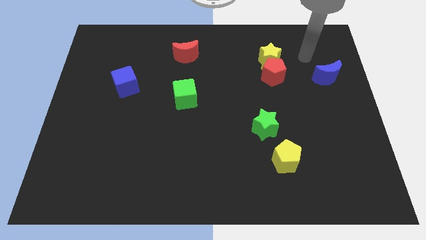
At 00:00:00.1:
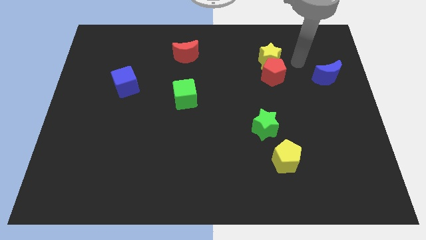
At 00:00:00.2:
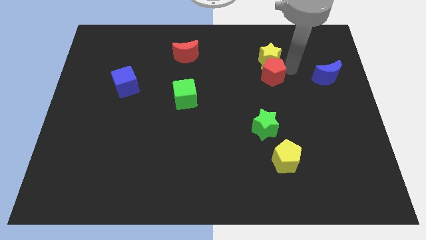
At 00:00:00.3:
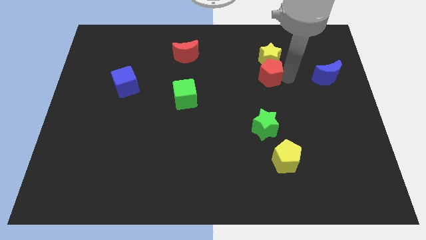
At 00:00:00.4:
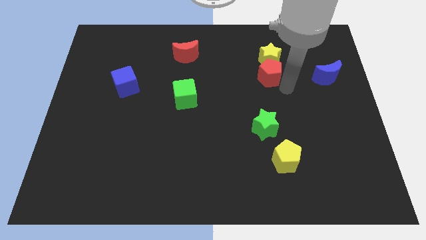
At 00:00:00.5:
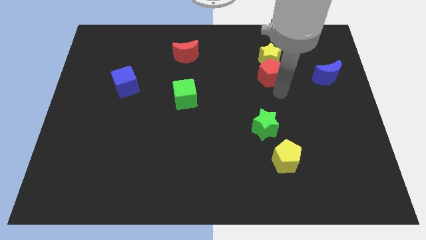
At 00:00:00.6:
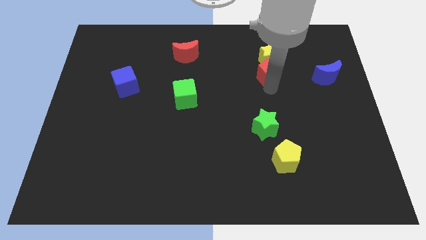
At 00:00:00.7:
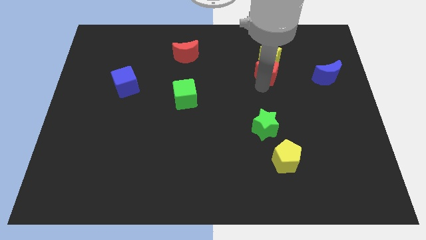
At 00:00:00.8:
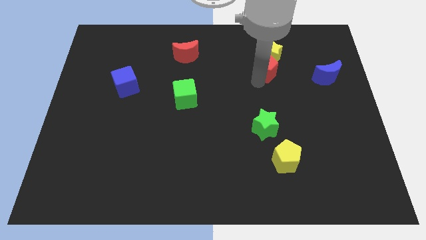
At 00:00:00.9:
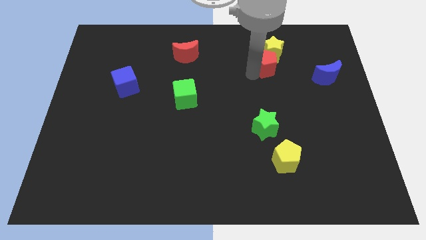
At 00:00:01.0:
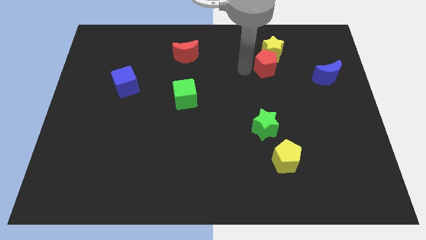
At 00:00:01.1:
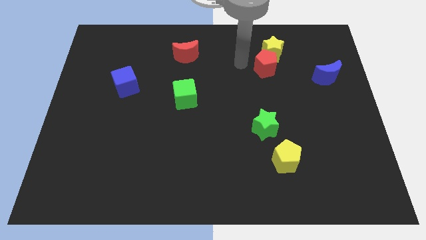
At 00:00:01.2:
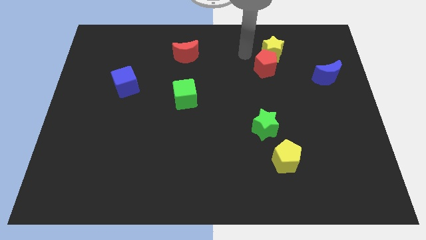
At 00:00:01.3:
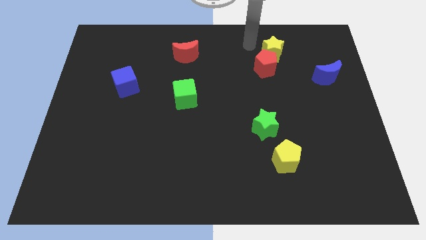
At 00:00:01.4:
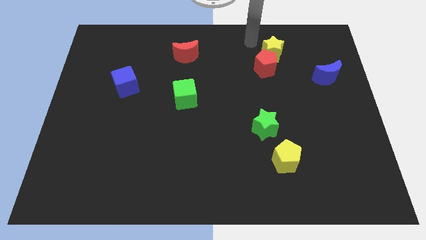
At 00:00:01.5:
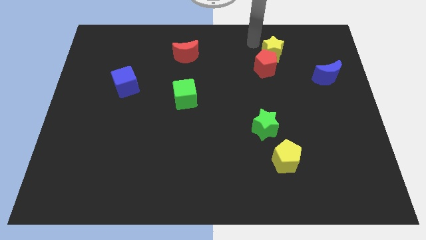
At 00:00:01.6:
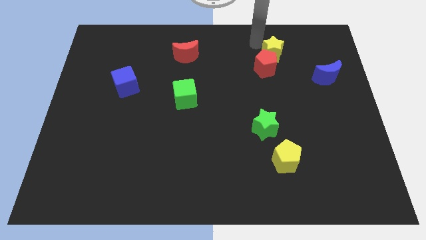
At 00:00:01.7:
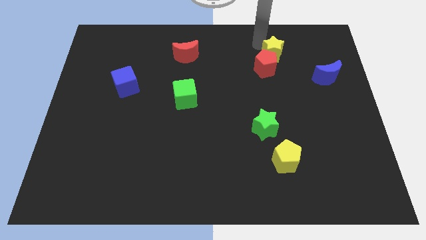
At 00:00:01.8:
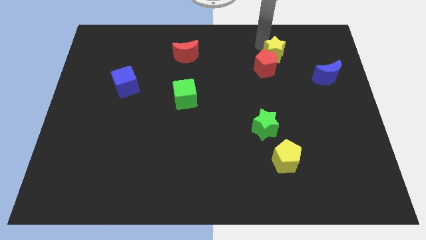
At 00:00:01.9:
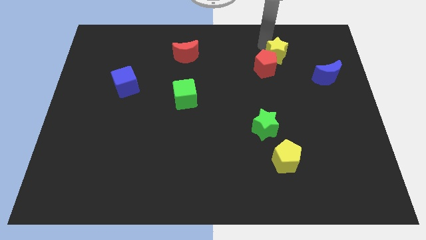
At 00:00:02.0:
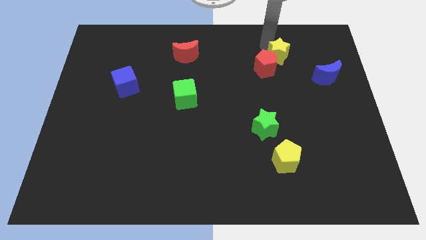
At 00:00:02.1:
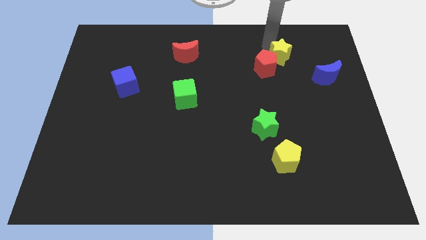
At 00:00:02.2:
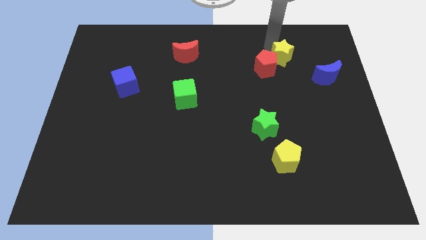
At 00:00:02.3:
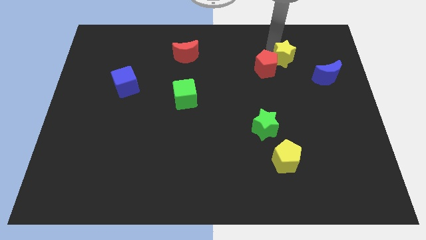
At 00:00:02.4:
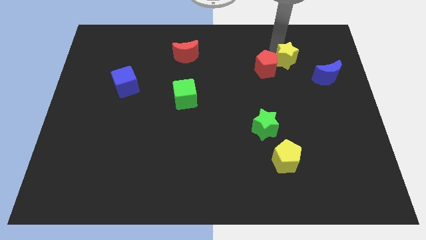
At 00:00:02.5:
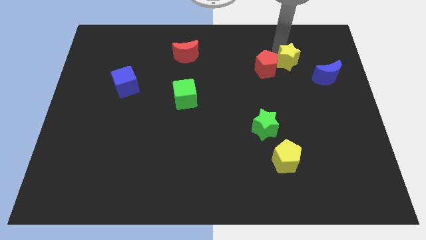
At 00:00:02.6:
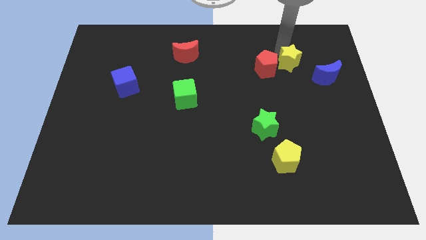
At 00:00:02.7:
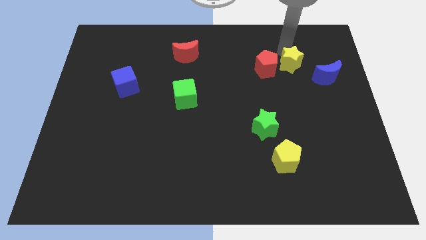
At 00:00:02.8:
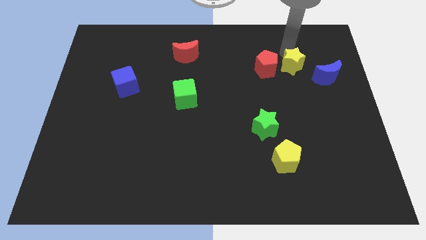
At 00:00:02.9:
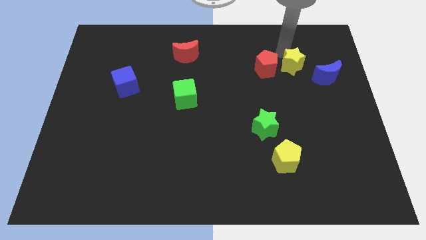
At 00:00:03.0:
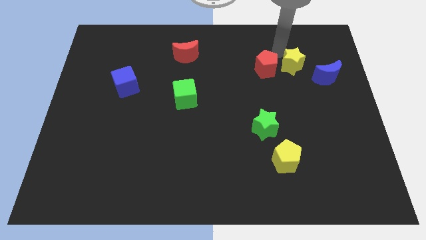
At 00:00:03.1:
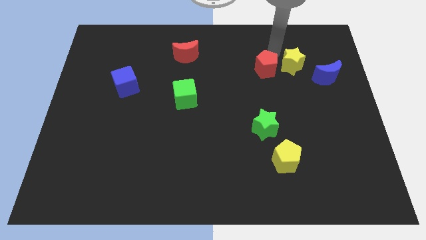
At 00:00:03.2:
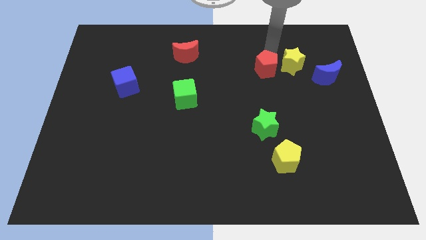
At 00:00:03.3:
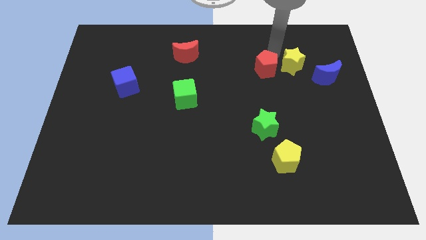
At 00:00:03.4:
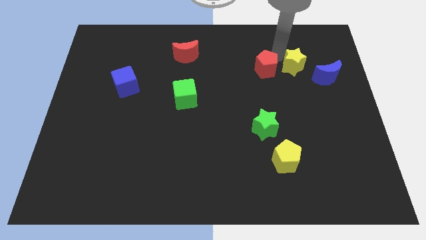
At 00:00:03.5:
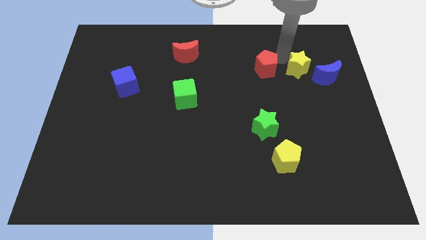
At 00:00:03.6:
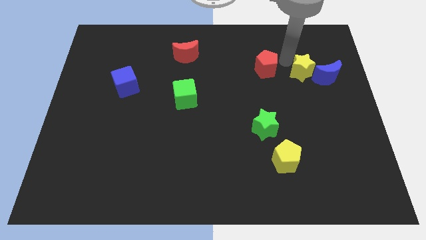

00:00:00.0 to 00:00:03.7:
slightly push the yellow star down and to the right diagonally

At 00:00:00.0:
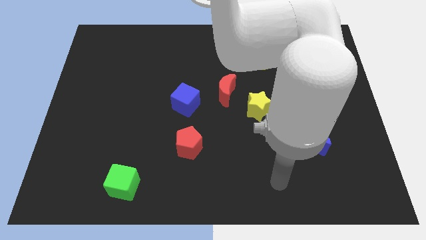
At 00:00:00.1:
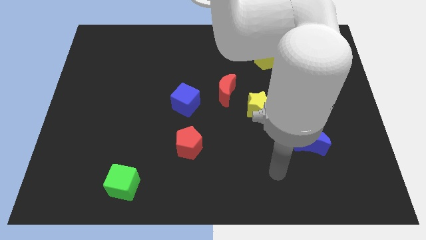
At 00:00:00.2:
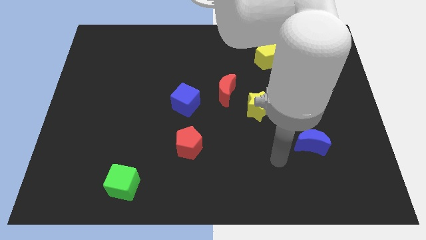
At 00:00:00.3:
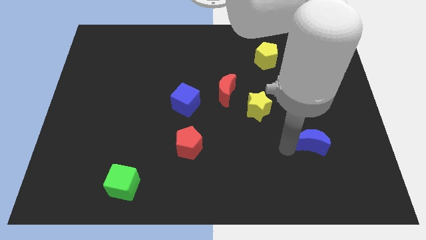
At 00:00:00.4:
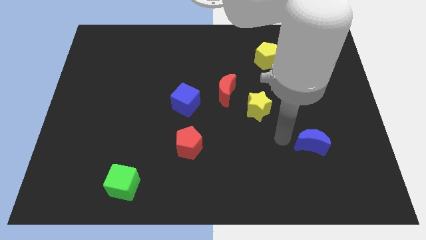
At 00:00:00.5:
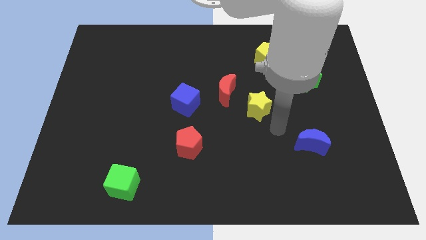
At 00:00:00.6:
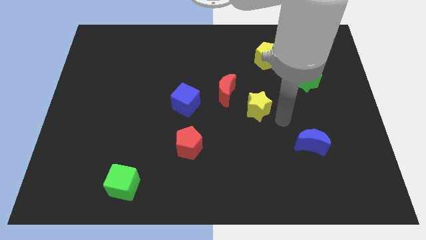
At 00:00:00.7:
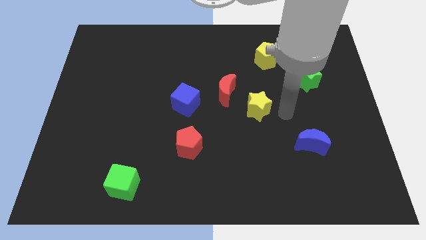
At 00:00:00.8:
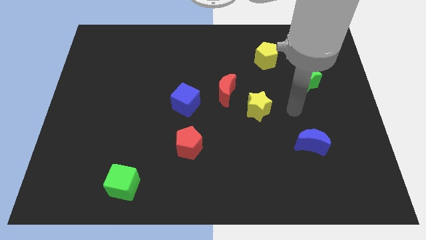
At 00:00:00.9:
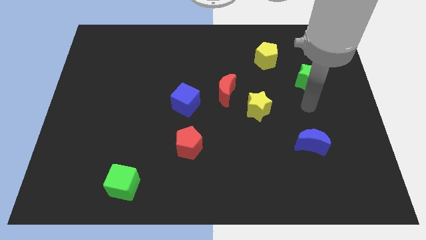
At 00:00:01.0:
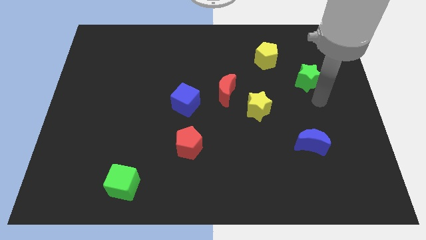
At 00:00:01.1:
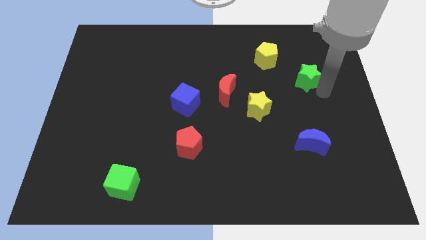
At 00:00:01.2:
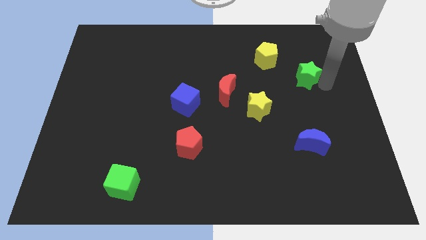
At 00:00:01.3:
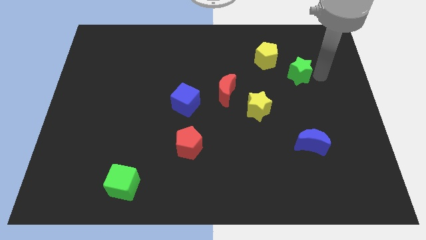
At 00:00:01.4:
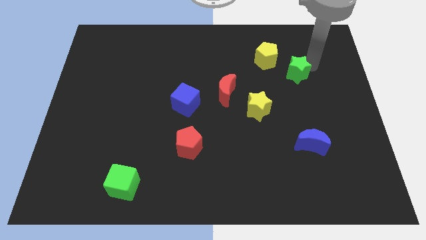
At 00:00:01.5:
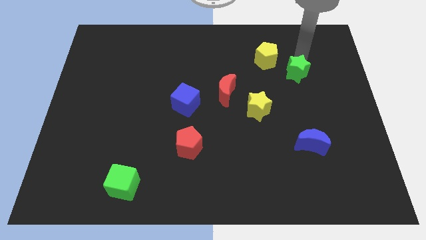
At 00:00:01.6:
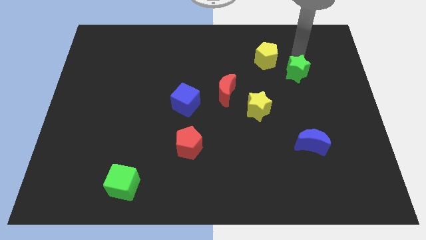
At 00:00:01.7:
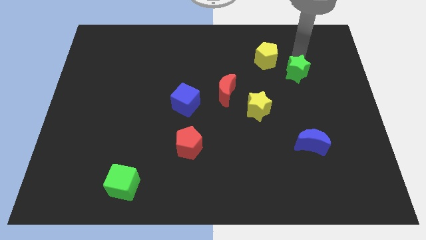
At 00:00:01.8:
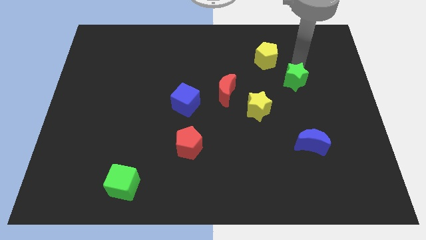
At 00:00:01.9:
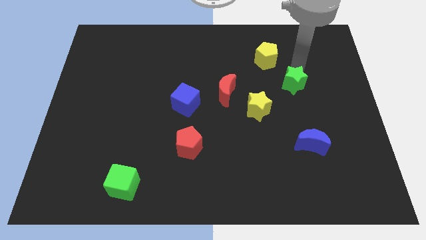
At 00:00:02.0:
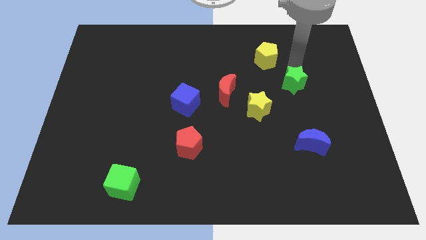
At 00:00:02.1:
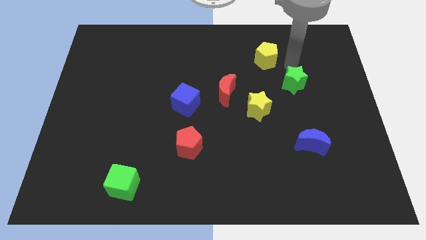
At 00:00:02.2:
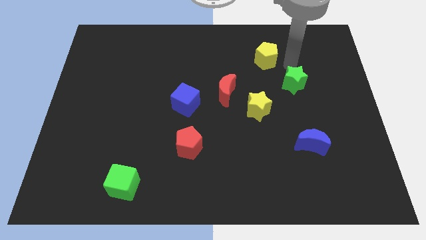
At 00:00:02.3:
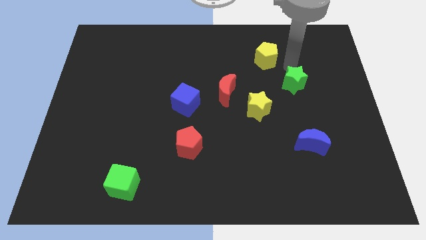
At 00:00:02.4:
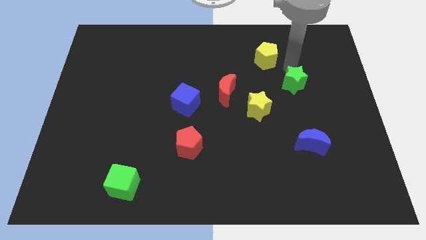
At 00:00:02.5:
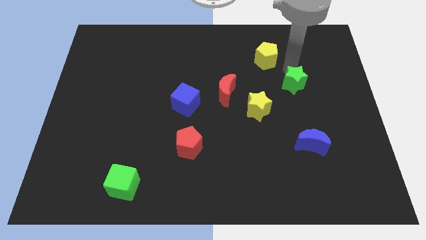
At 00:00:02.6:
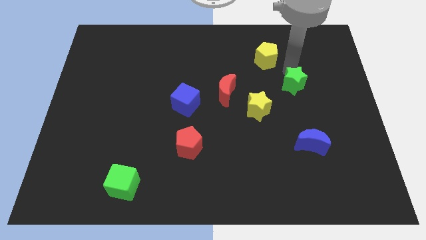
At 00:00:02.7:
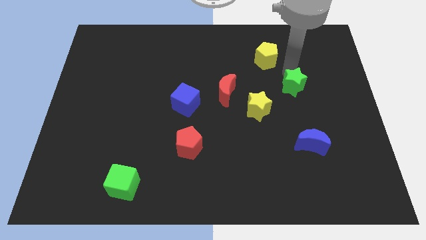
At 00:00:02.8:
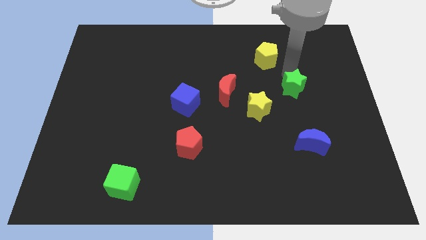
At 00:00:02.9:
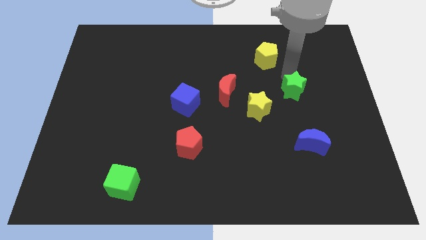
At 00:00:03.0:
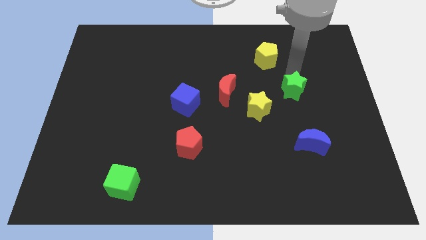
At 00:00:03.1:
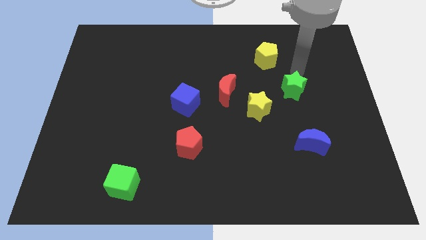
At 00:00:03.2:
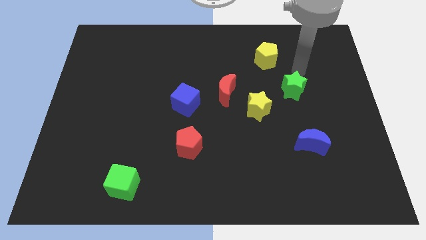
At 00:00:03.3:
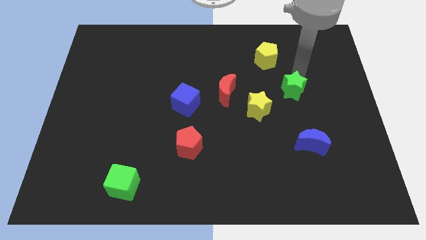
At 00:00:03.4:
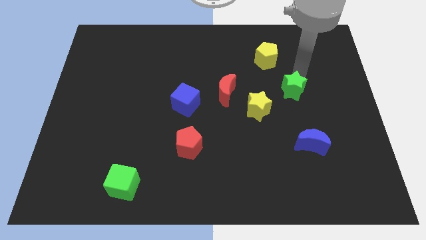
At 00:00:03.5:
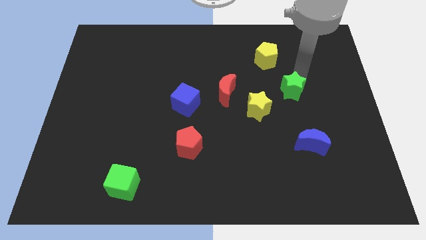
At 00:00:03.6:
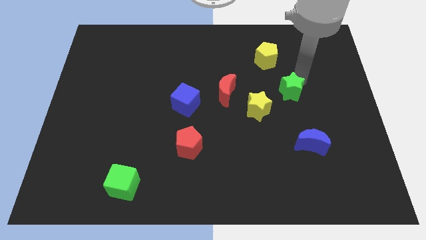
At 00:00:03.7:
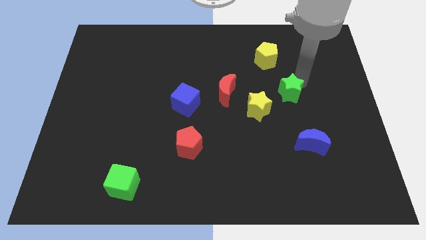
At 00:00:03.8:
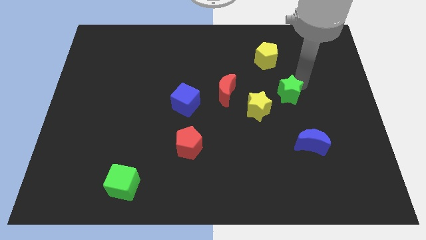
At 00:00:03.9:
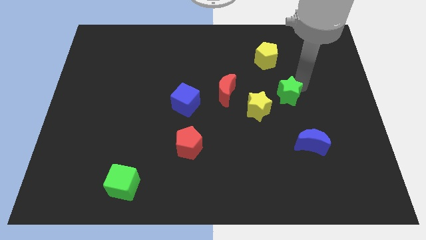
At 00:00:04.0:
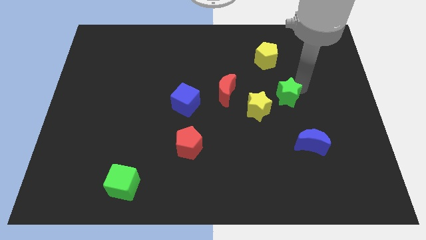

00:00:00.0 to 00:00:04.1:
slide the green star downwards and left diagonally slightly
